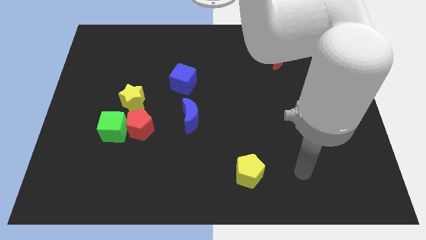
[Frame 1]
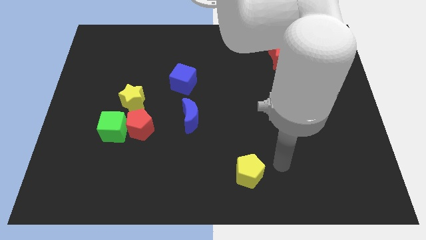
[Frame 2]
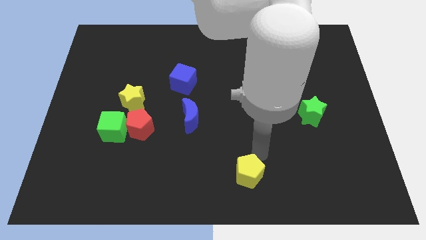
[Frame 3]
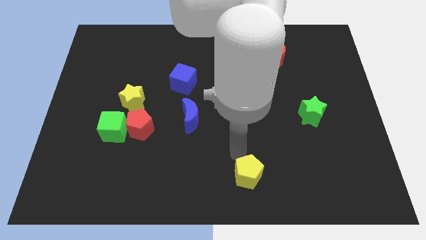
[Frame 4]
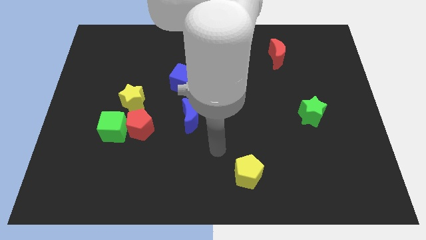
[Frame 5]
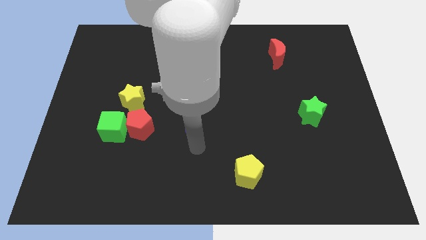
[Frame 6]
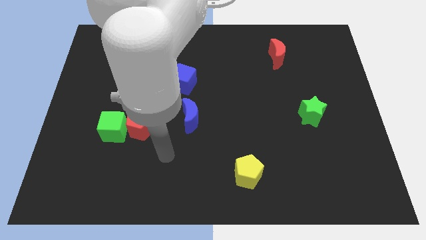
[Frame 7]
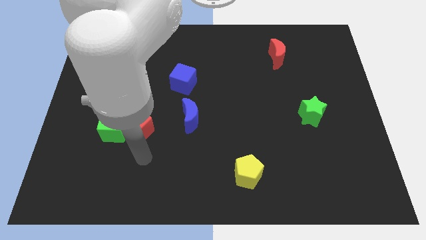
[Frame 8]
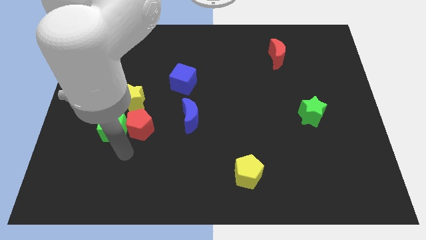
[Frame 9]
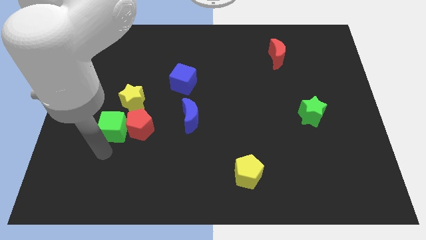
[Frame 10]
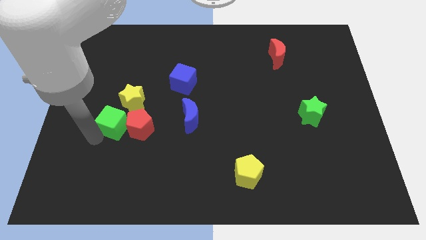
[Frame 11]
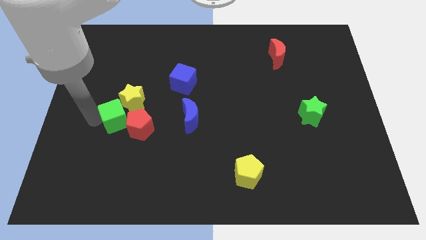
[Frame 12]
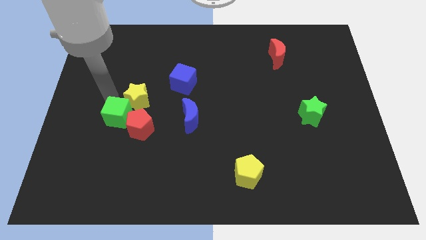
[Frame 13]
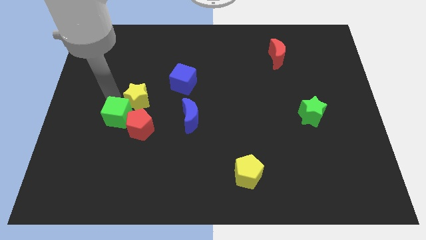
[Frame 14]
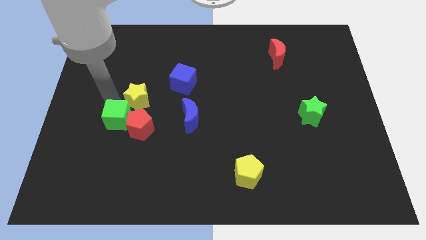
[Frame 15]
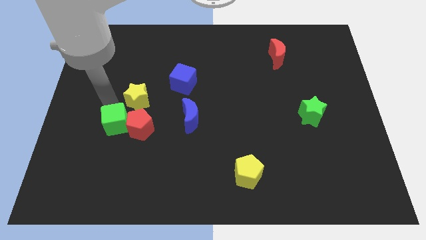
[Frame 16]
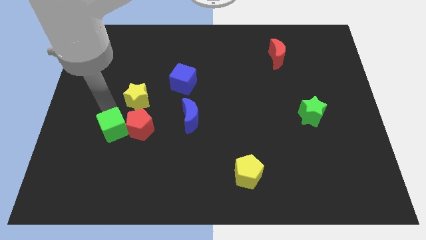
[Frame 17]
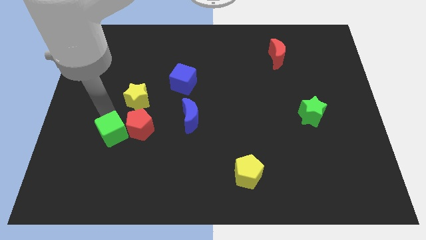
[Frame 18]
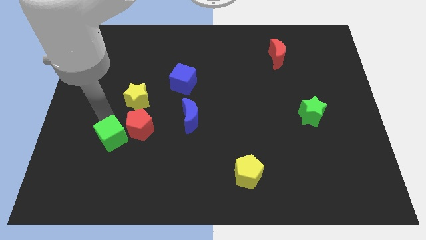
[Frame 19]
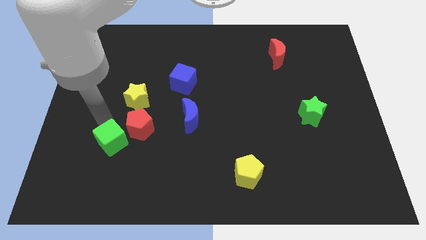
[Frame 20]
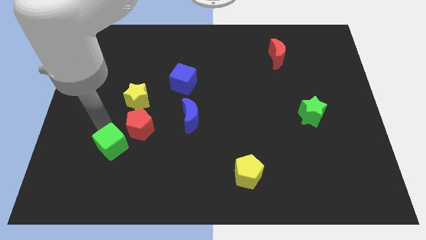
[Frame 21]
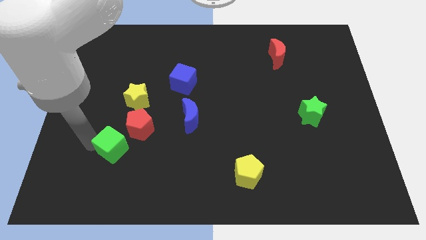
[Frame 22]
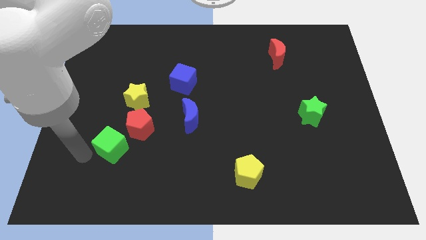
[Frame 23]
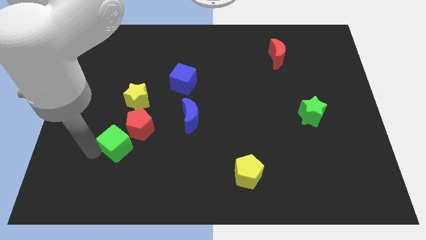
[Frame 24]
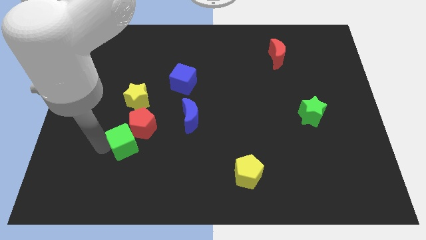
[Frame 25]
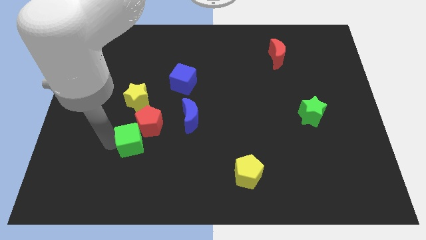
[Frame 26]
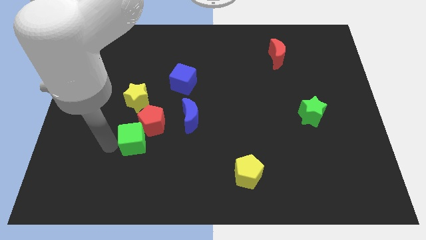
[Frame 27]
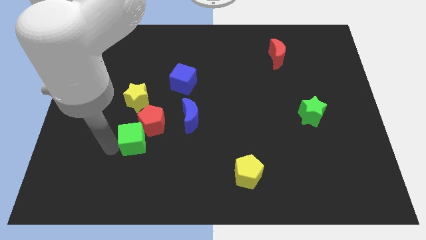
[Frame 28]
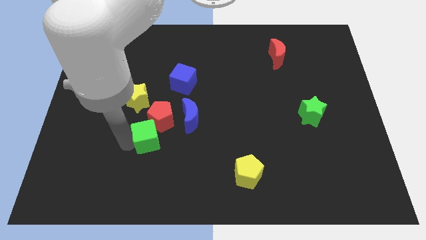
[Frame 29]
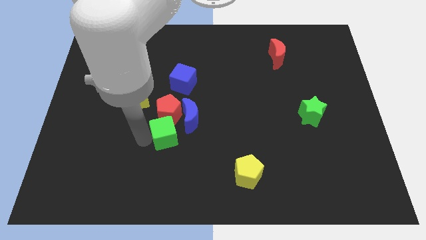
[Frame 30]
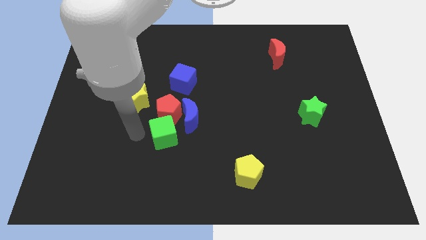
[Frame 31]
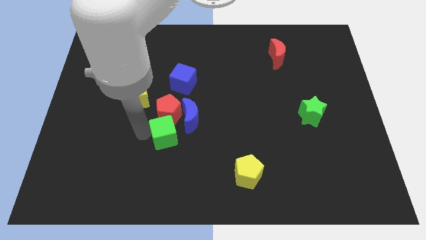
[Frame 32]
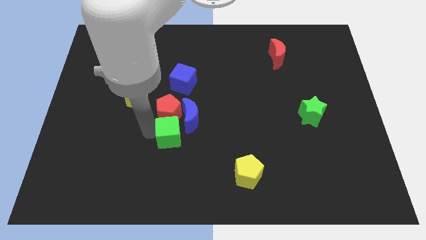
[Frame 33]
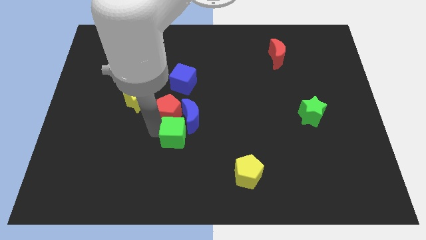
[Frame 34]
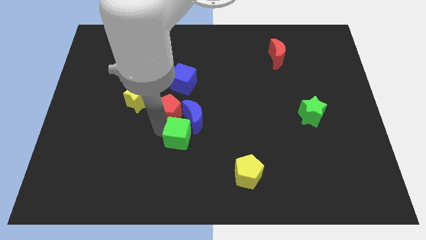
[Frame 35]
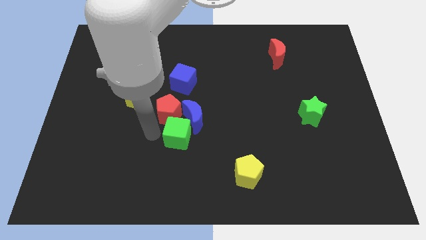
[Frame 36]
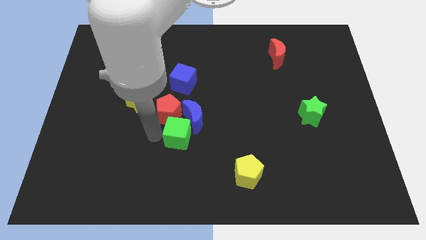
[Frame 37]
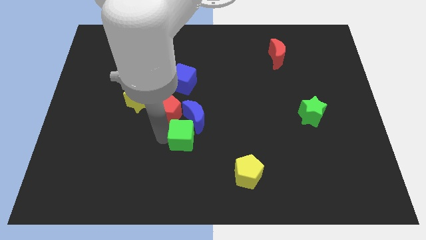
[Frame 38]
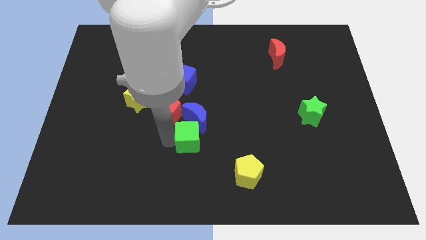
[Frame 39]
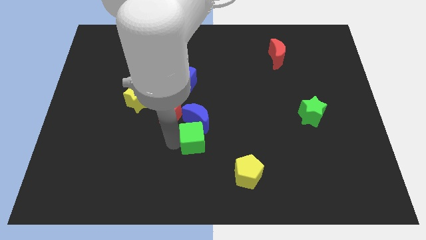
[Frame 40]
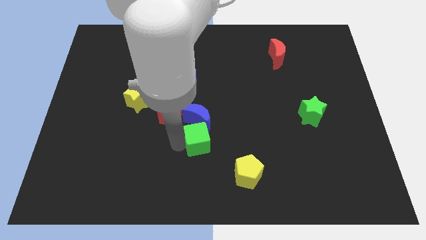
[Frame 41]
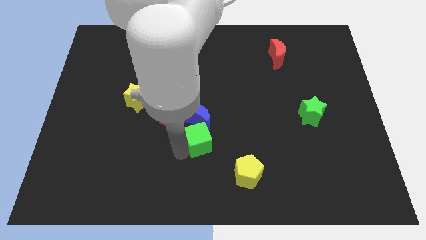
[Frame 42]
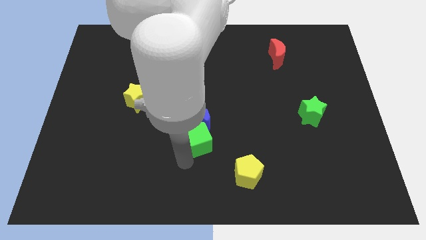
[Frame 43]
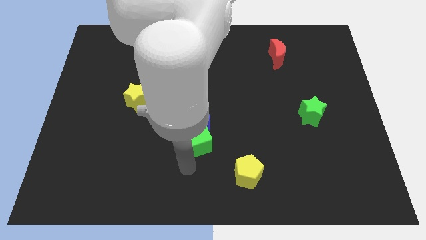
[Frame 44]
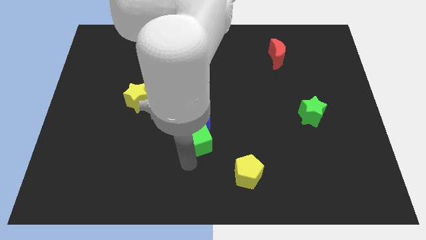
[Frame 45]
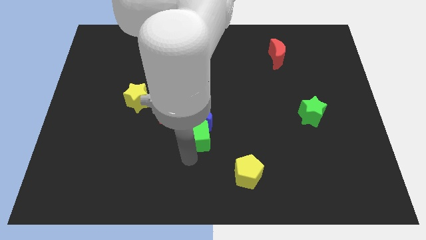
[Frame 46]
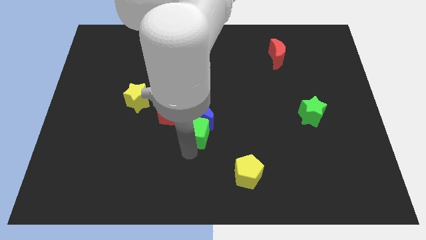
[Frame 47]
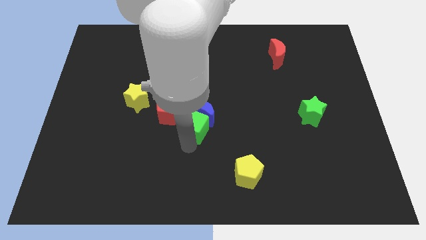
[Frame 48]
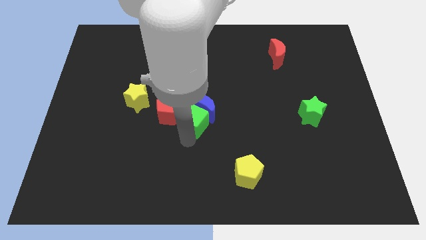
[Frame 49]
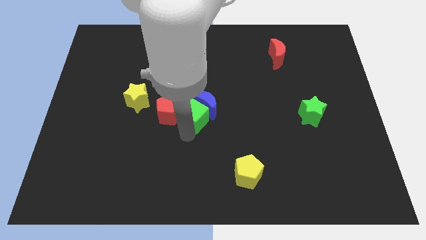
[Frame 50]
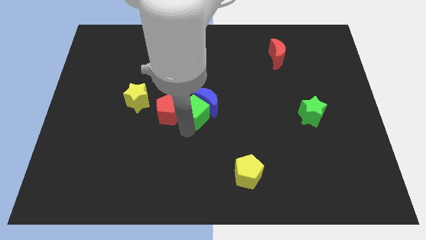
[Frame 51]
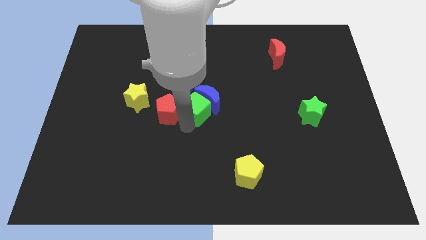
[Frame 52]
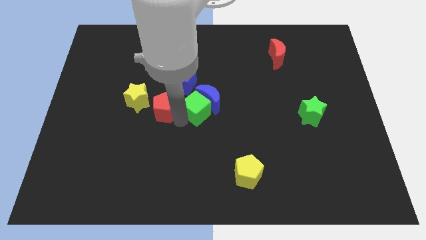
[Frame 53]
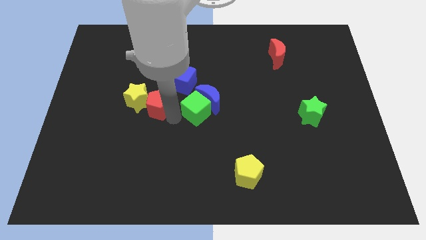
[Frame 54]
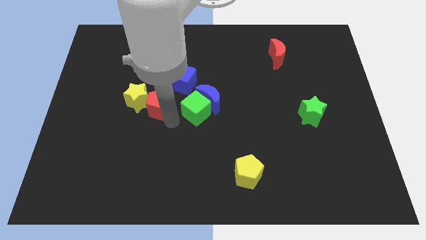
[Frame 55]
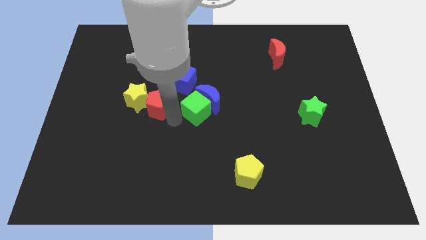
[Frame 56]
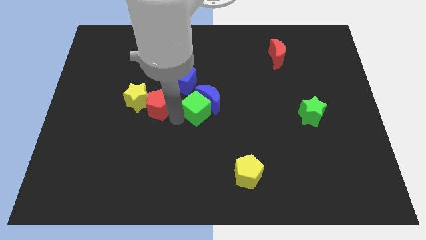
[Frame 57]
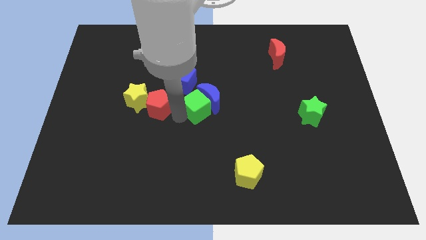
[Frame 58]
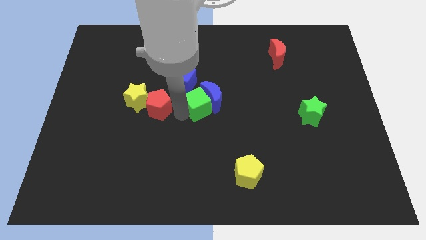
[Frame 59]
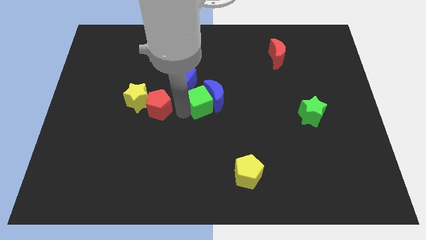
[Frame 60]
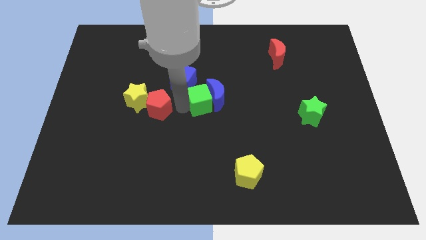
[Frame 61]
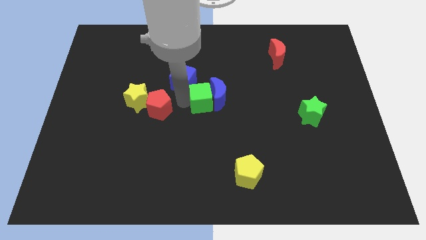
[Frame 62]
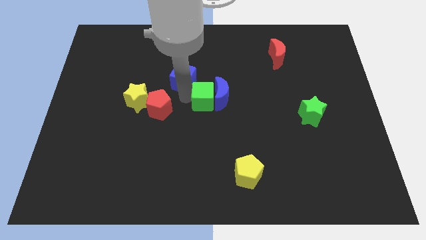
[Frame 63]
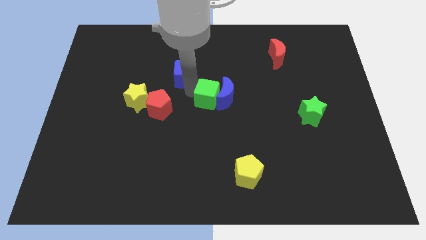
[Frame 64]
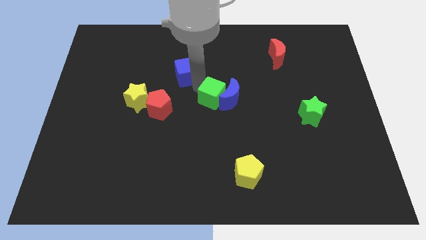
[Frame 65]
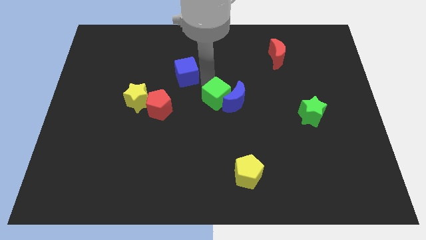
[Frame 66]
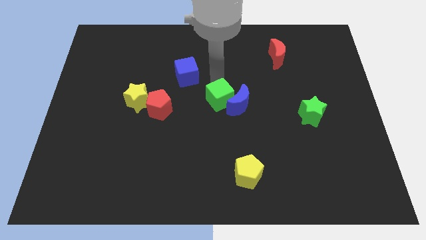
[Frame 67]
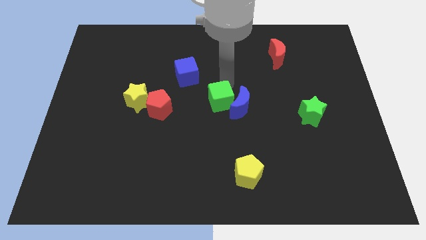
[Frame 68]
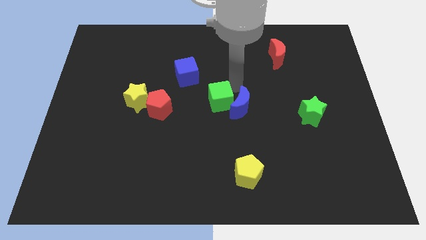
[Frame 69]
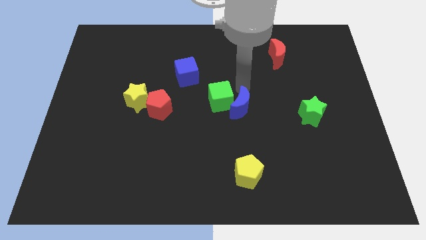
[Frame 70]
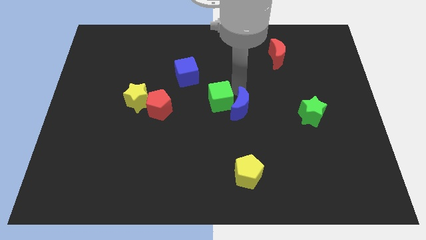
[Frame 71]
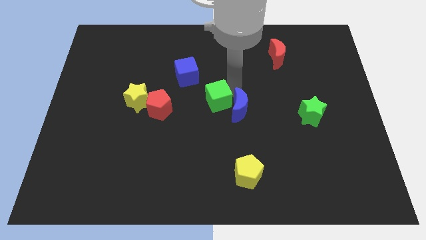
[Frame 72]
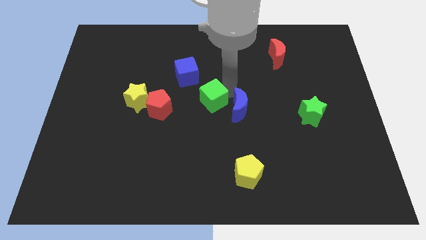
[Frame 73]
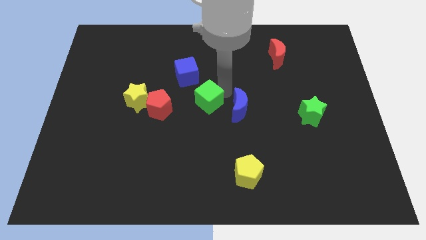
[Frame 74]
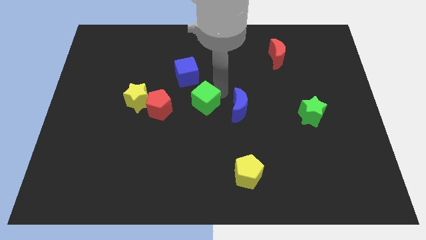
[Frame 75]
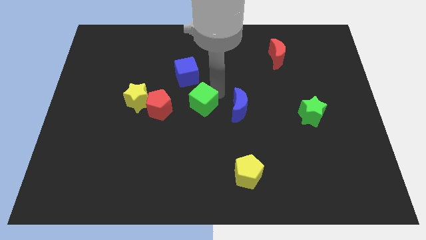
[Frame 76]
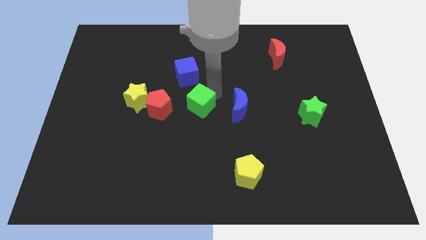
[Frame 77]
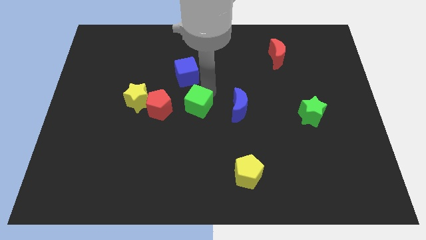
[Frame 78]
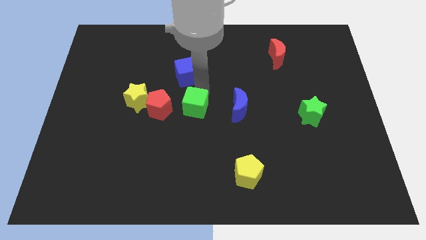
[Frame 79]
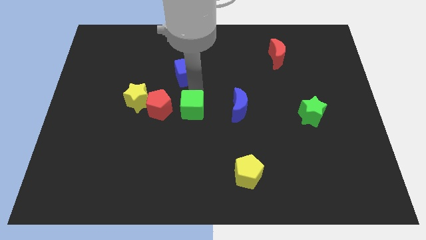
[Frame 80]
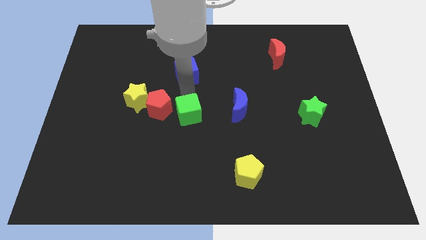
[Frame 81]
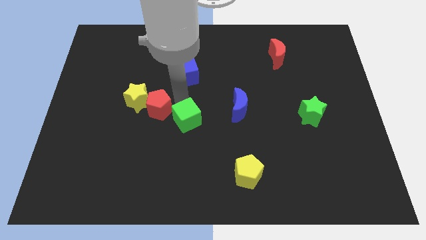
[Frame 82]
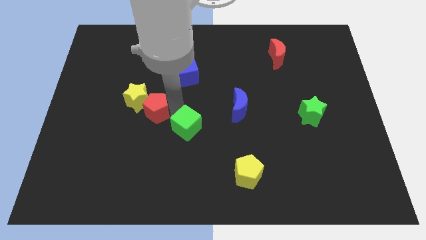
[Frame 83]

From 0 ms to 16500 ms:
move the green cube just right of the red pentagon
